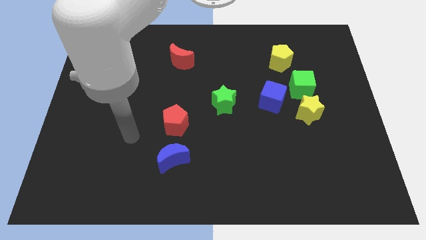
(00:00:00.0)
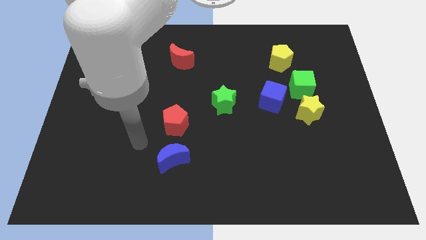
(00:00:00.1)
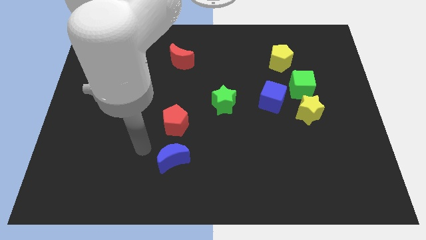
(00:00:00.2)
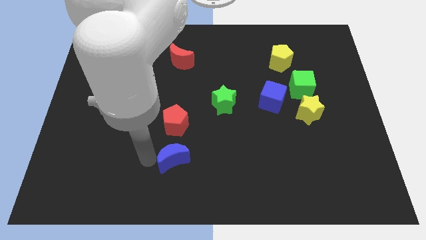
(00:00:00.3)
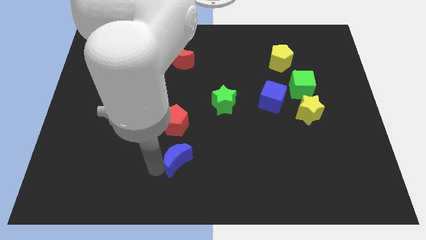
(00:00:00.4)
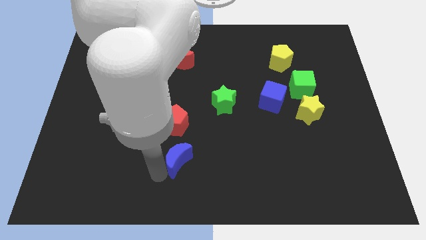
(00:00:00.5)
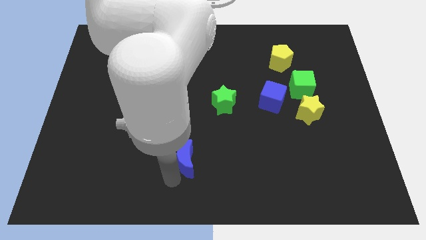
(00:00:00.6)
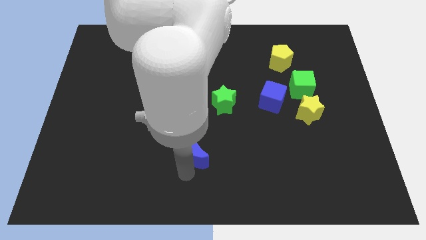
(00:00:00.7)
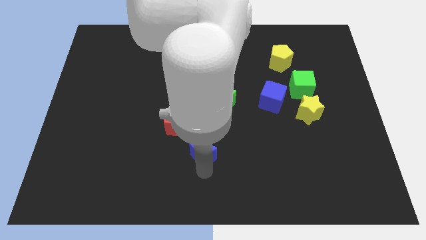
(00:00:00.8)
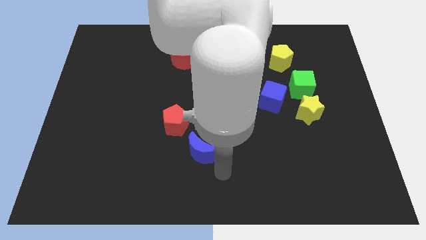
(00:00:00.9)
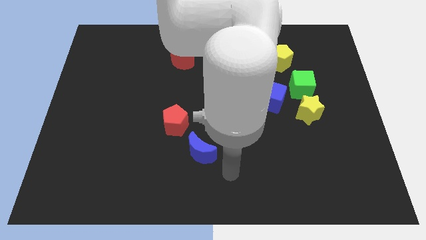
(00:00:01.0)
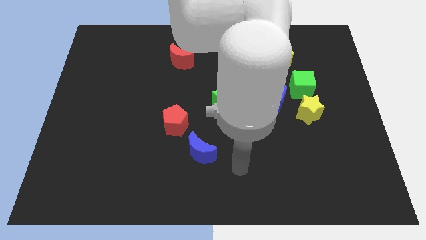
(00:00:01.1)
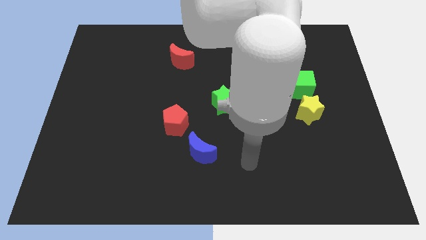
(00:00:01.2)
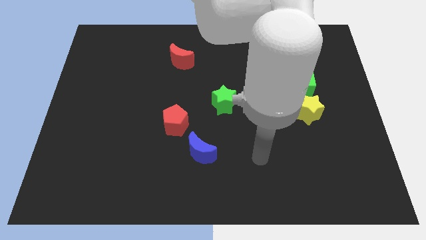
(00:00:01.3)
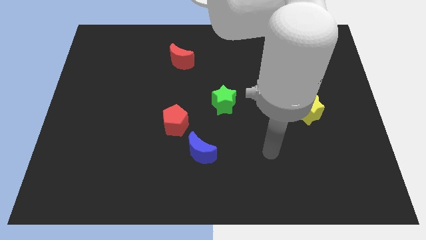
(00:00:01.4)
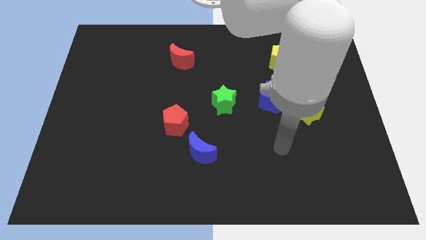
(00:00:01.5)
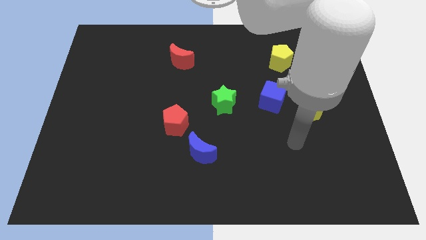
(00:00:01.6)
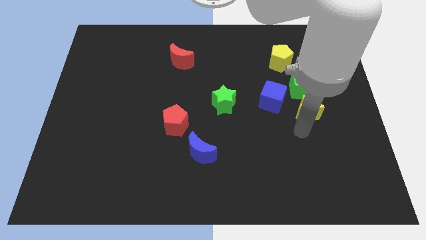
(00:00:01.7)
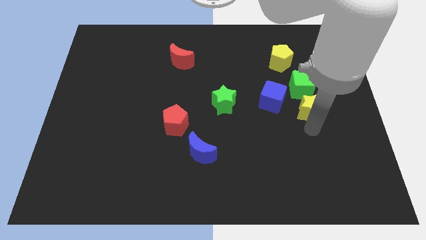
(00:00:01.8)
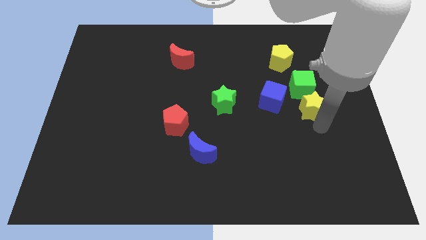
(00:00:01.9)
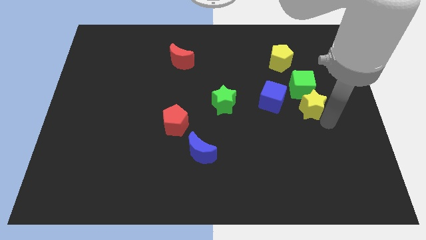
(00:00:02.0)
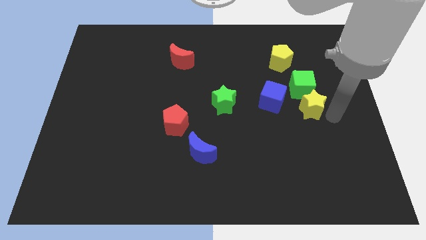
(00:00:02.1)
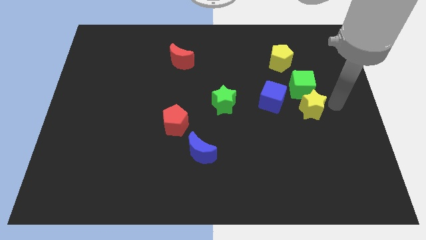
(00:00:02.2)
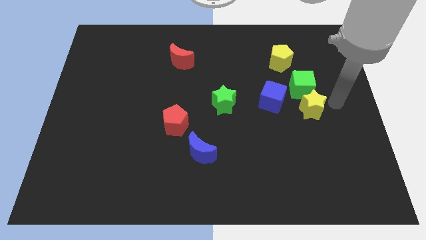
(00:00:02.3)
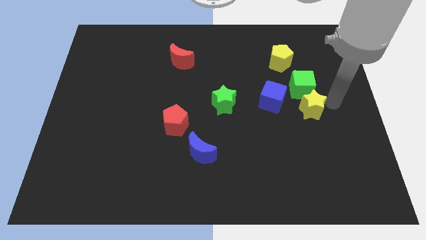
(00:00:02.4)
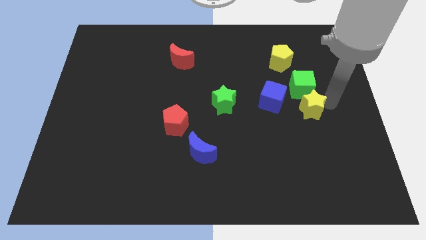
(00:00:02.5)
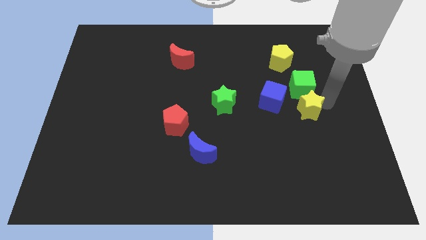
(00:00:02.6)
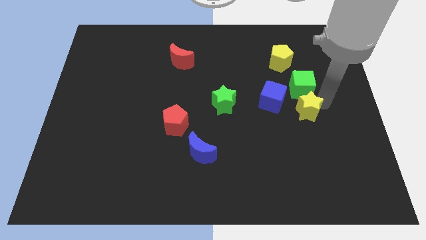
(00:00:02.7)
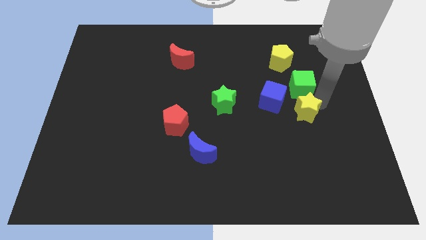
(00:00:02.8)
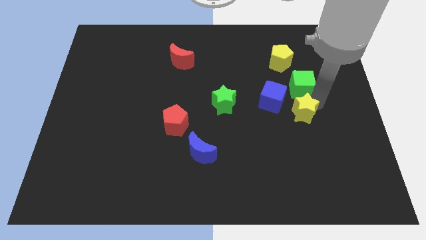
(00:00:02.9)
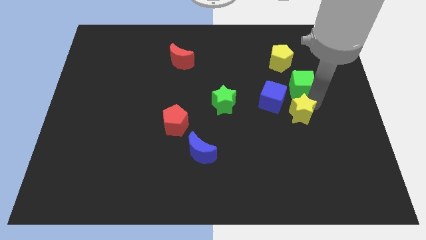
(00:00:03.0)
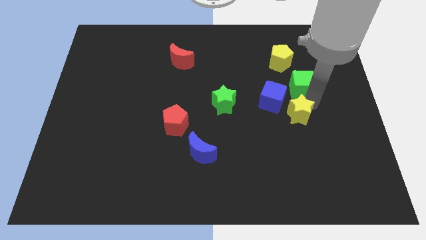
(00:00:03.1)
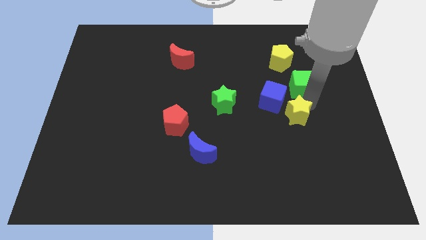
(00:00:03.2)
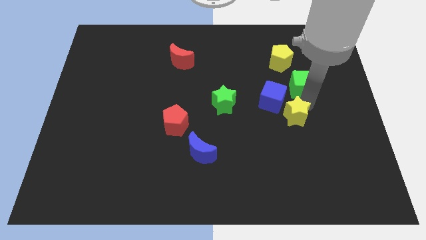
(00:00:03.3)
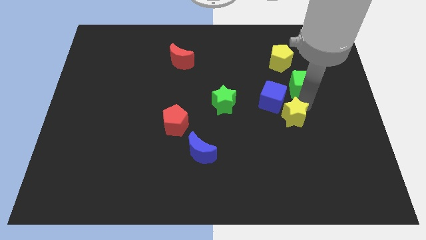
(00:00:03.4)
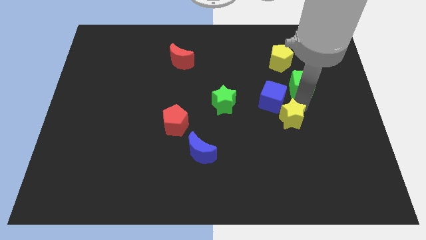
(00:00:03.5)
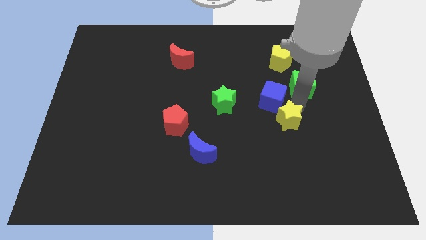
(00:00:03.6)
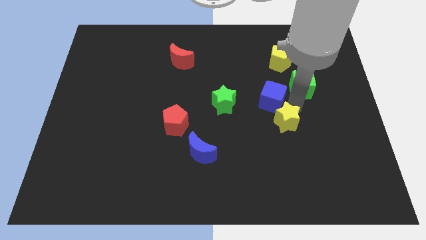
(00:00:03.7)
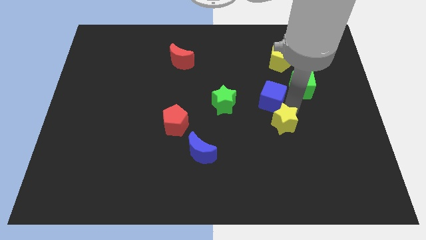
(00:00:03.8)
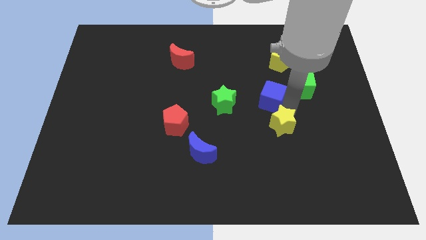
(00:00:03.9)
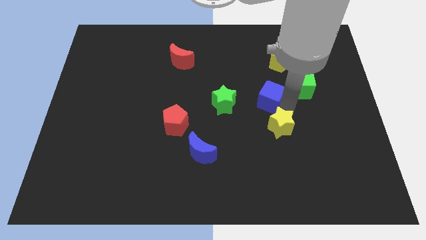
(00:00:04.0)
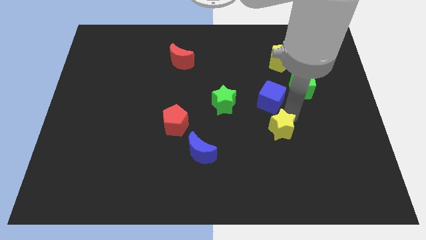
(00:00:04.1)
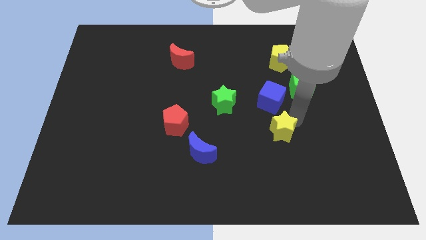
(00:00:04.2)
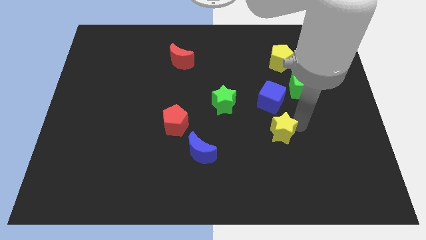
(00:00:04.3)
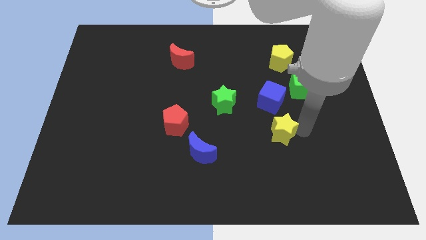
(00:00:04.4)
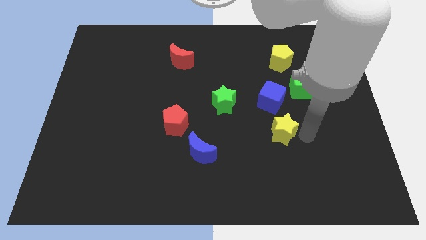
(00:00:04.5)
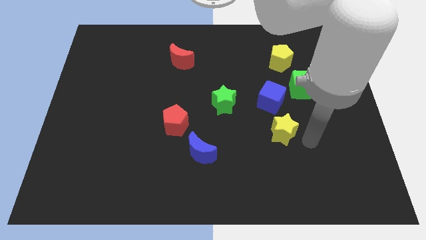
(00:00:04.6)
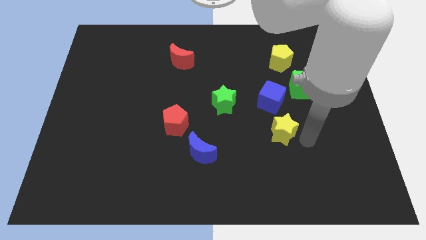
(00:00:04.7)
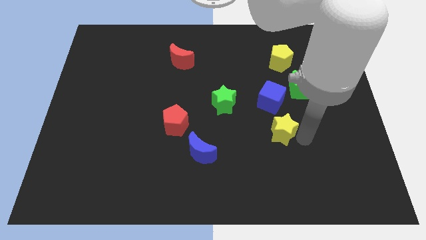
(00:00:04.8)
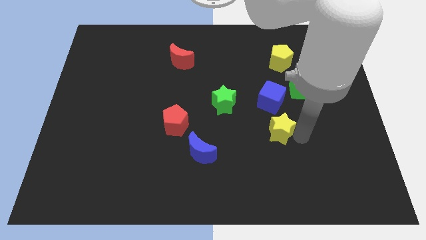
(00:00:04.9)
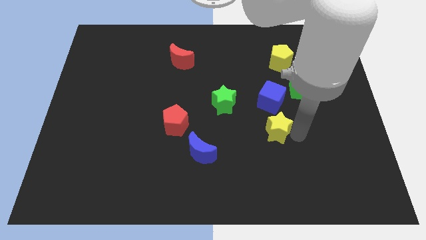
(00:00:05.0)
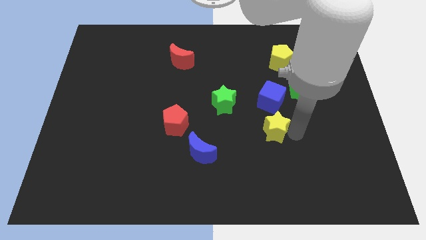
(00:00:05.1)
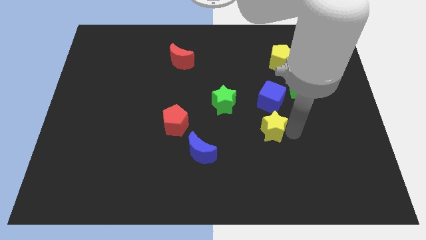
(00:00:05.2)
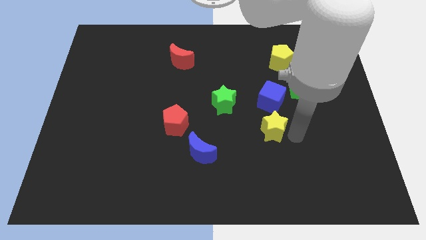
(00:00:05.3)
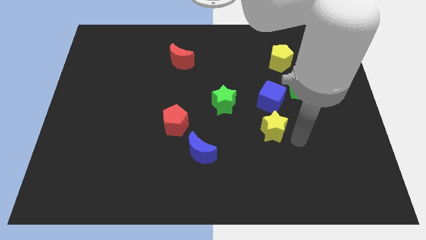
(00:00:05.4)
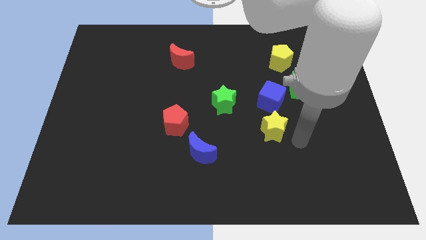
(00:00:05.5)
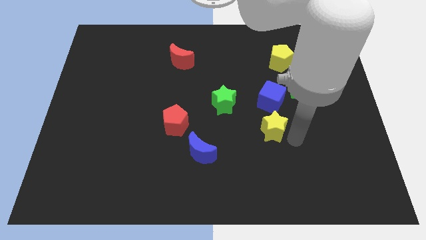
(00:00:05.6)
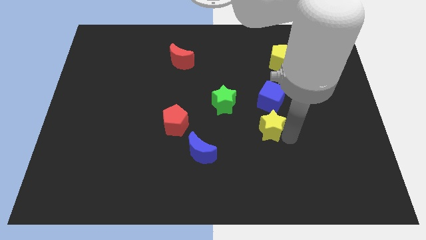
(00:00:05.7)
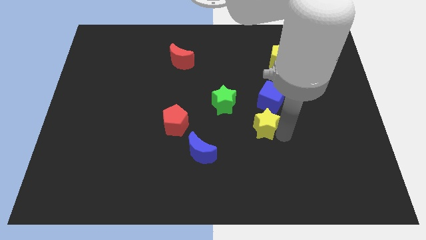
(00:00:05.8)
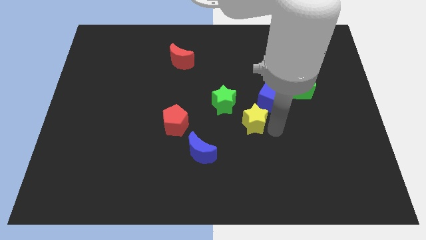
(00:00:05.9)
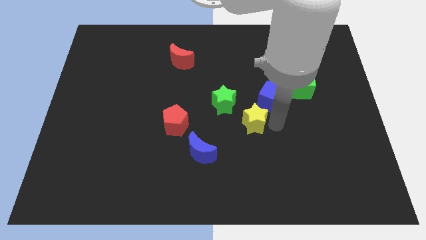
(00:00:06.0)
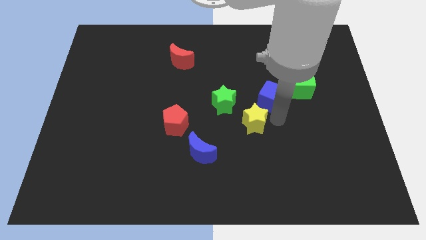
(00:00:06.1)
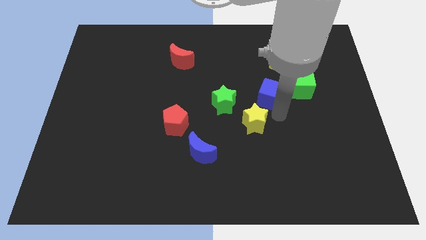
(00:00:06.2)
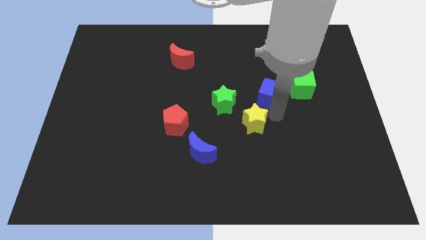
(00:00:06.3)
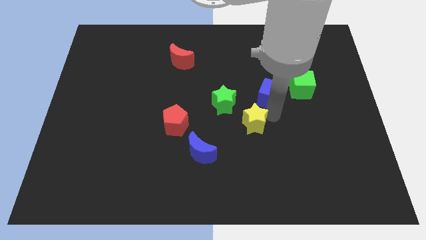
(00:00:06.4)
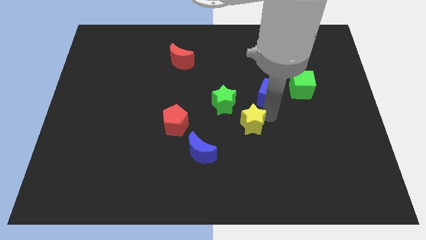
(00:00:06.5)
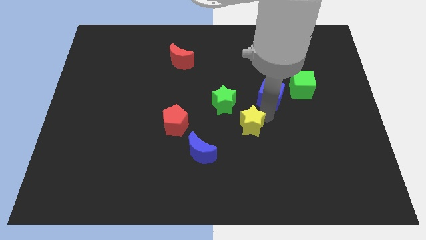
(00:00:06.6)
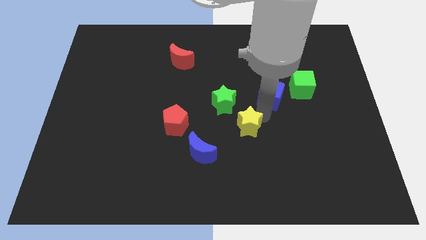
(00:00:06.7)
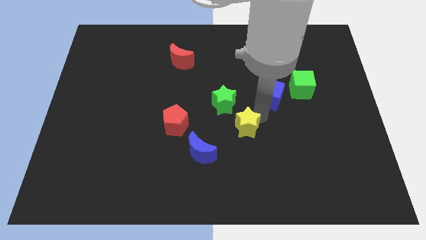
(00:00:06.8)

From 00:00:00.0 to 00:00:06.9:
put the yellow star to the top right side of the blue moon
